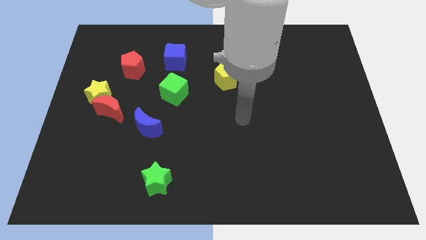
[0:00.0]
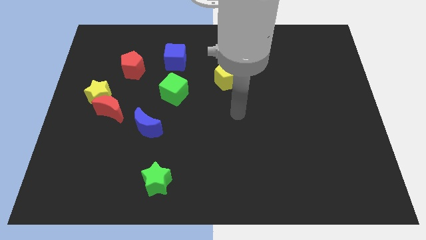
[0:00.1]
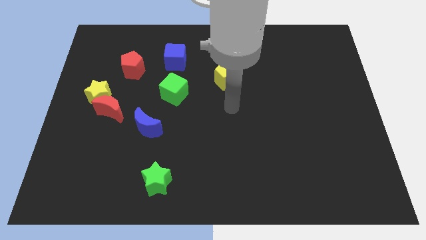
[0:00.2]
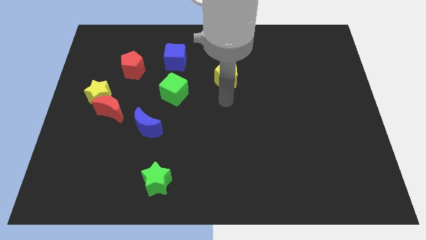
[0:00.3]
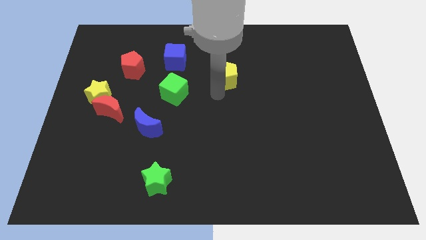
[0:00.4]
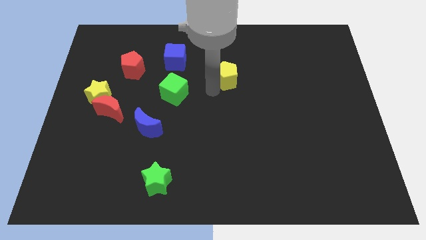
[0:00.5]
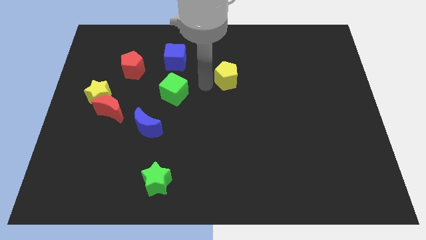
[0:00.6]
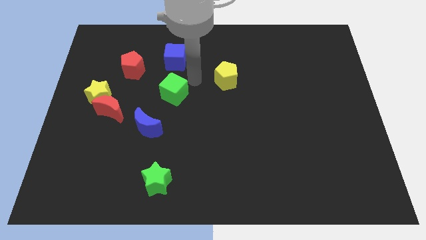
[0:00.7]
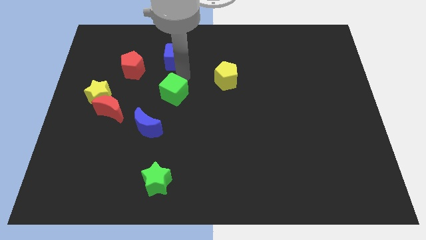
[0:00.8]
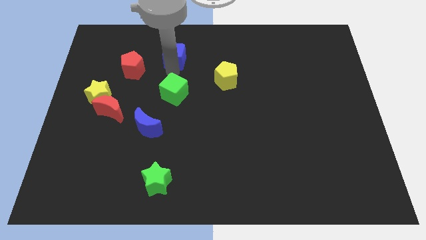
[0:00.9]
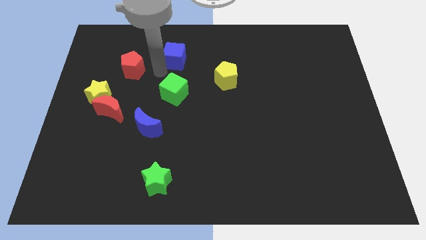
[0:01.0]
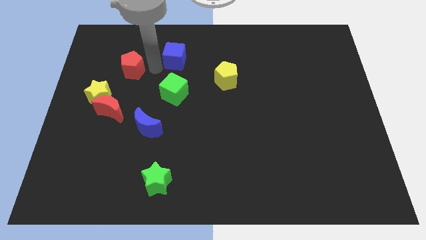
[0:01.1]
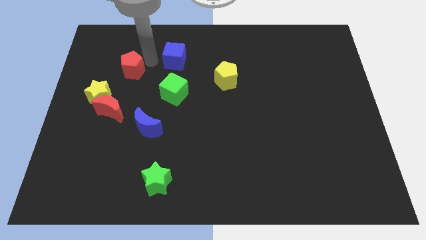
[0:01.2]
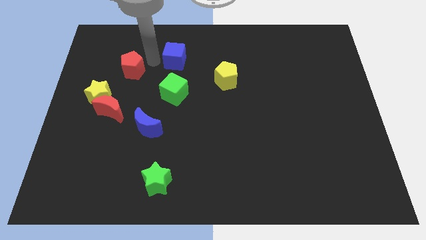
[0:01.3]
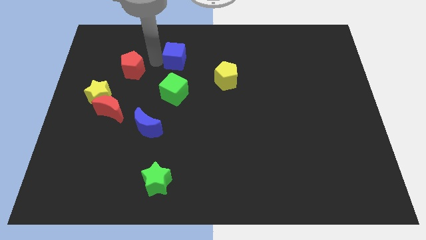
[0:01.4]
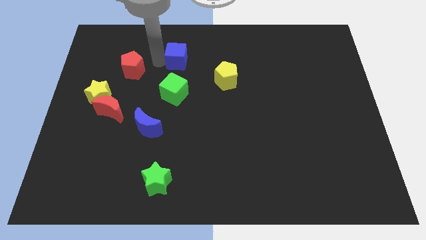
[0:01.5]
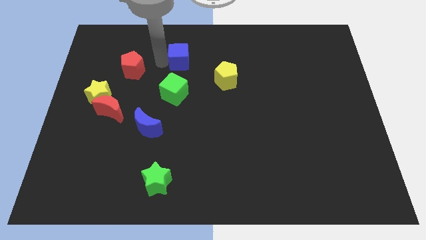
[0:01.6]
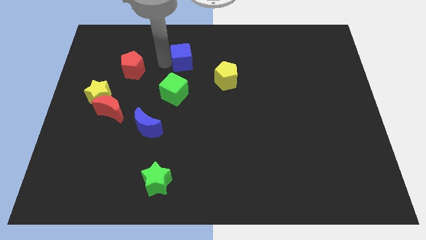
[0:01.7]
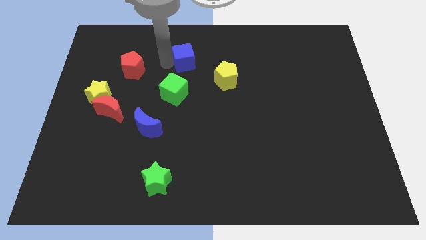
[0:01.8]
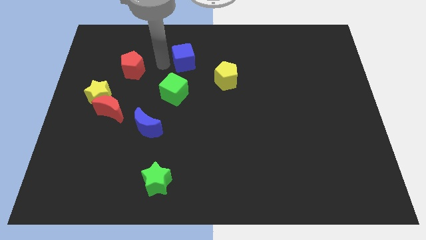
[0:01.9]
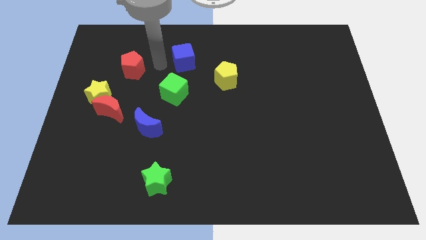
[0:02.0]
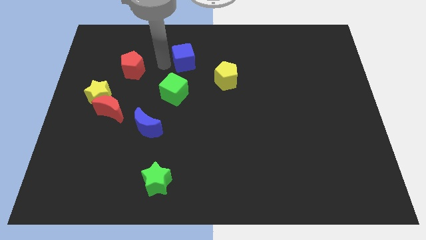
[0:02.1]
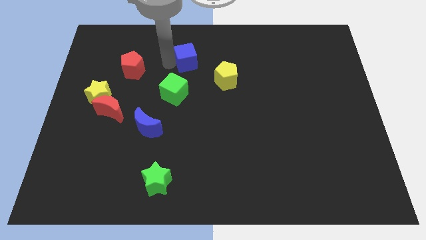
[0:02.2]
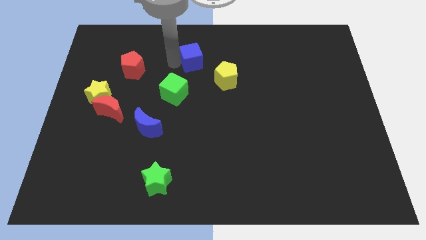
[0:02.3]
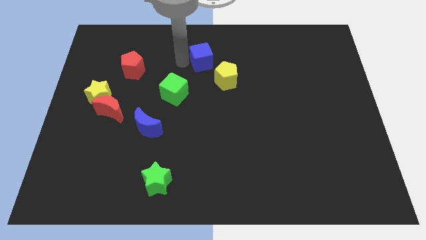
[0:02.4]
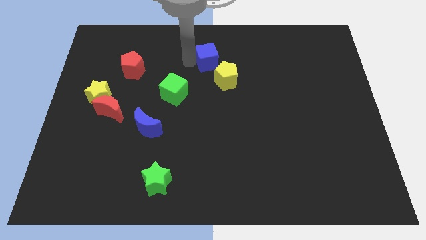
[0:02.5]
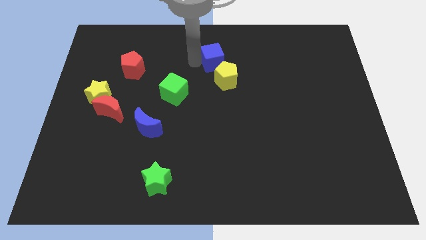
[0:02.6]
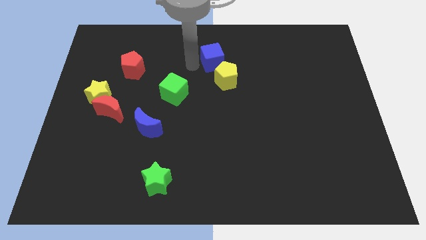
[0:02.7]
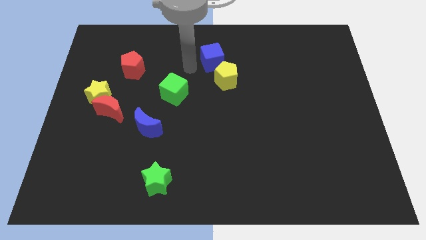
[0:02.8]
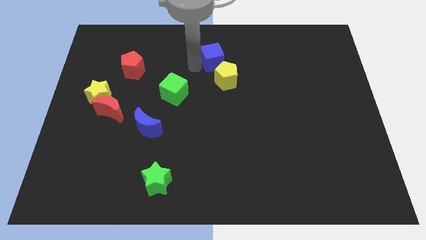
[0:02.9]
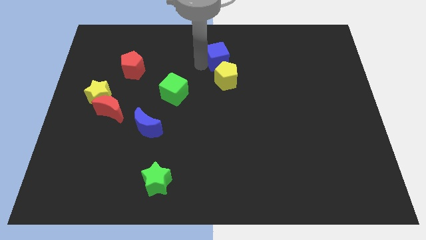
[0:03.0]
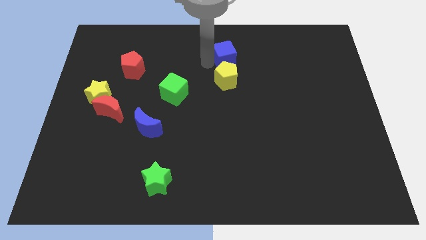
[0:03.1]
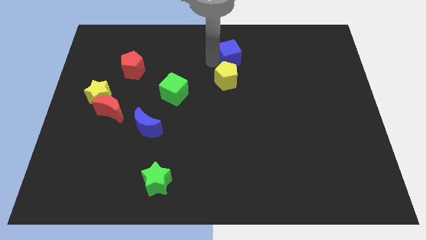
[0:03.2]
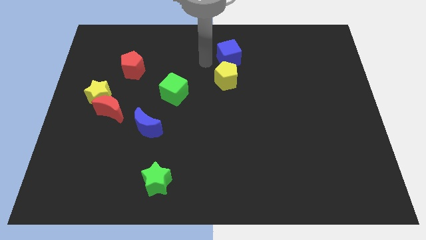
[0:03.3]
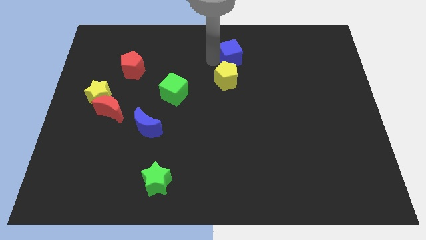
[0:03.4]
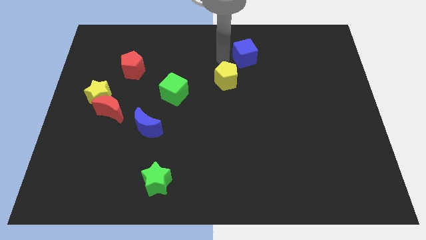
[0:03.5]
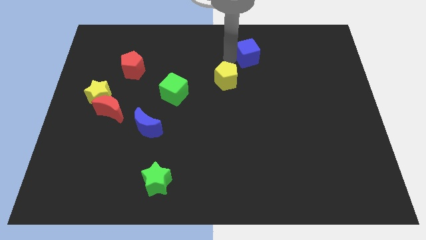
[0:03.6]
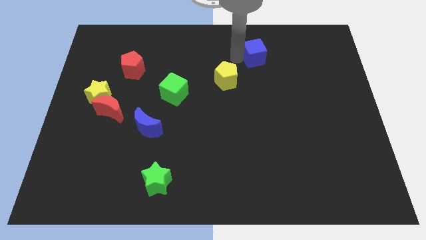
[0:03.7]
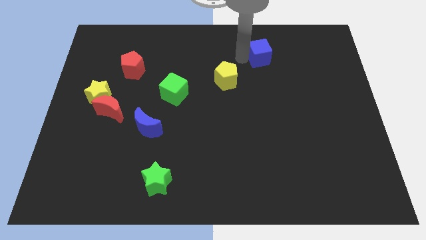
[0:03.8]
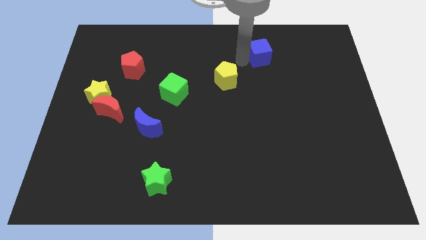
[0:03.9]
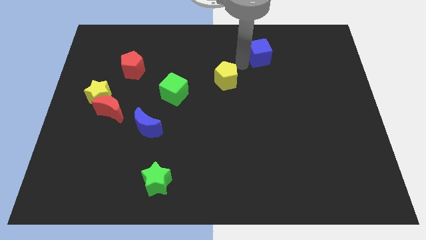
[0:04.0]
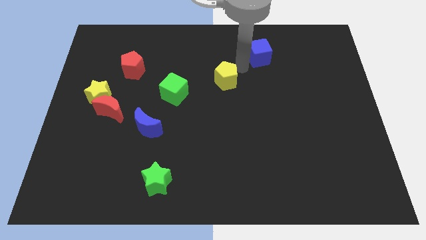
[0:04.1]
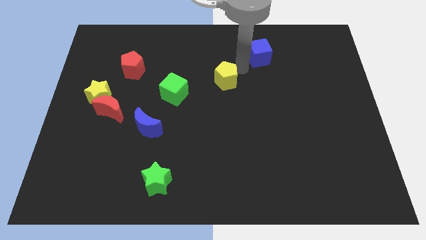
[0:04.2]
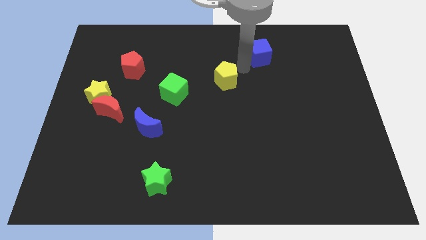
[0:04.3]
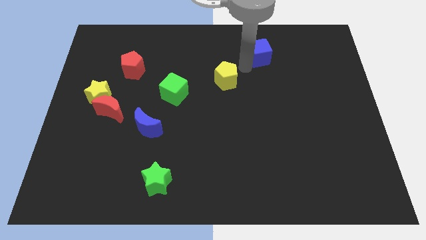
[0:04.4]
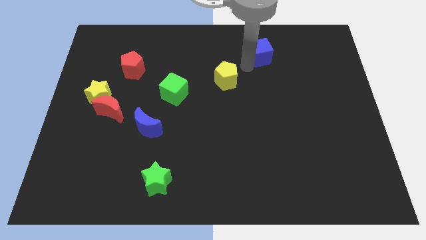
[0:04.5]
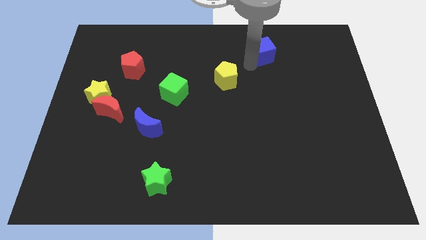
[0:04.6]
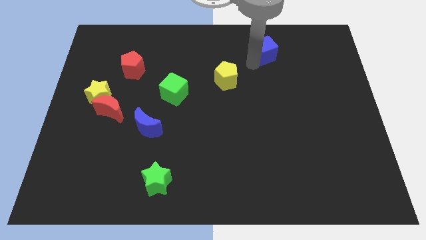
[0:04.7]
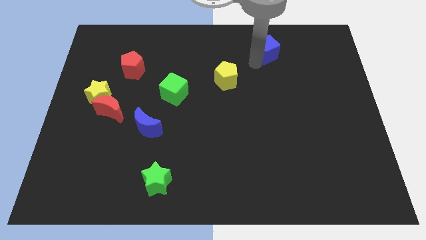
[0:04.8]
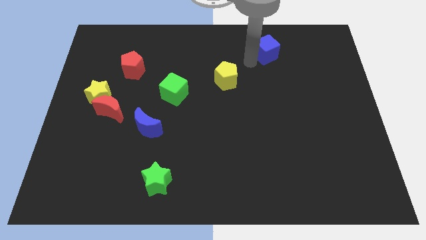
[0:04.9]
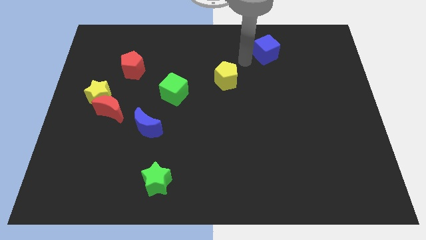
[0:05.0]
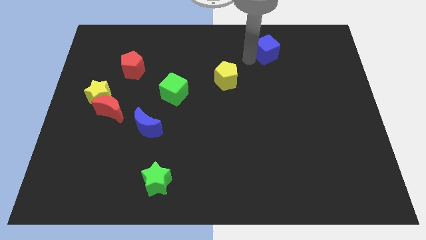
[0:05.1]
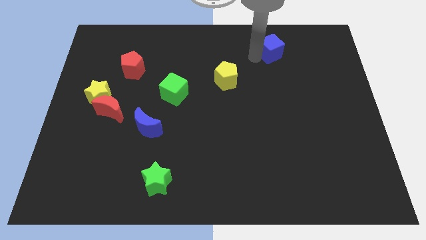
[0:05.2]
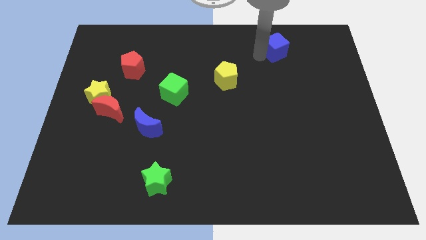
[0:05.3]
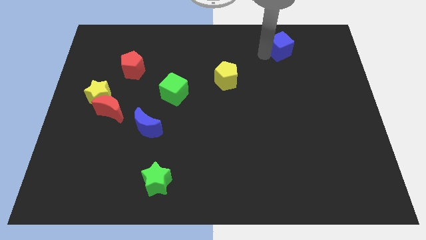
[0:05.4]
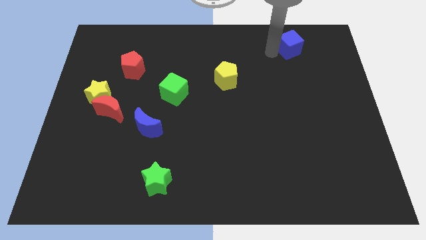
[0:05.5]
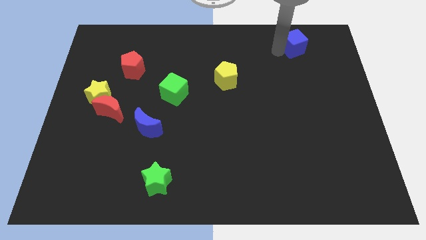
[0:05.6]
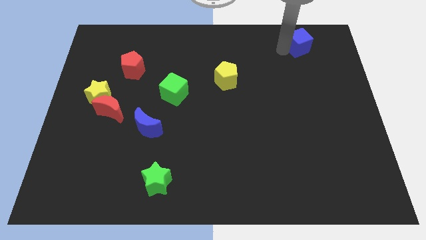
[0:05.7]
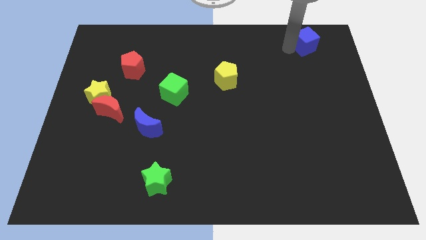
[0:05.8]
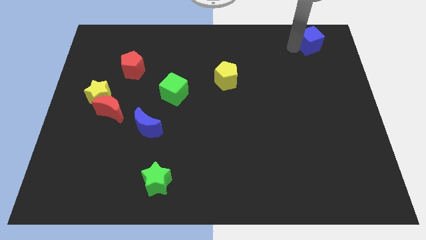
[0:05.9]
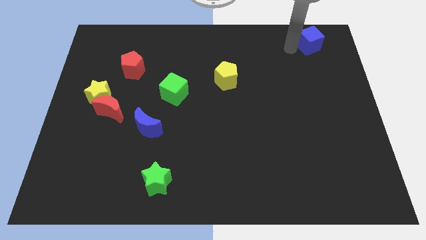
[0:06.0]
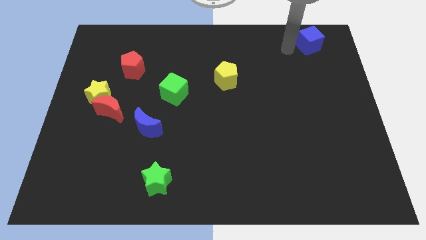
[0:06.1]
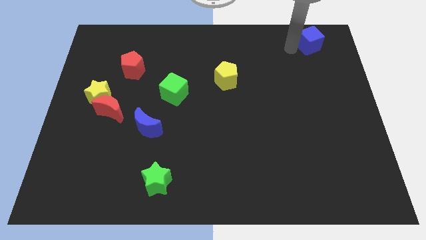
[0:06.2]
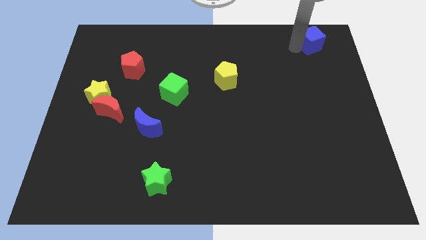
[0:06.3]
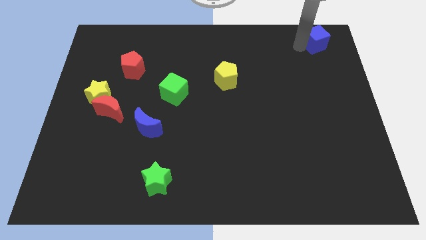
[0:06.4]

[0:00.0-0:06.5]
slide the blue cube to the top right

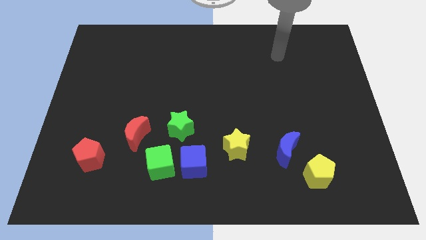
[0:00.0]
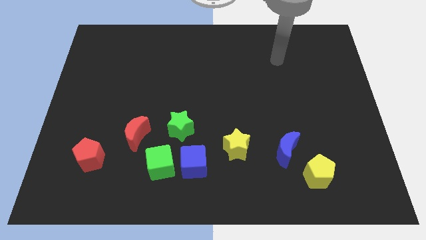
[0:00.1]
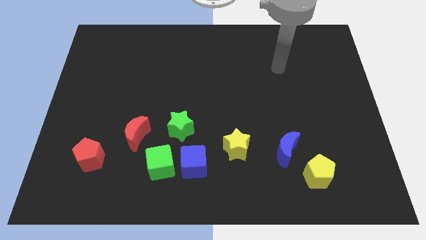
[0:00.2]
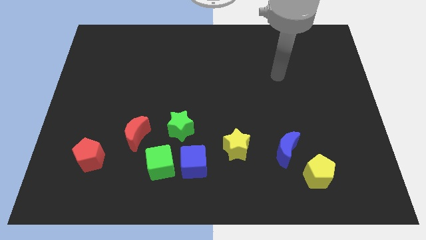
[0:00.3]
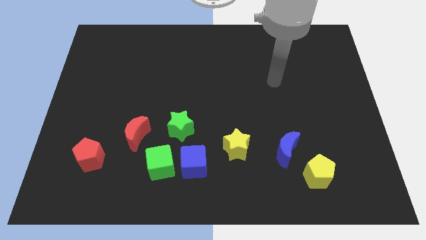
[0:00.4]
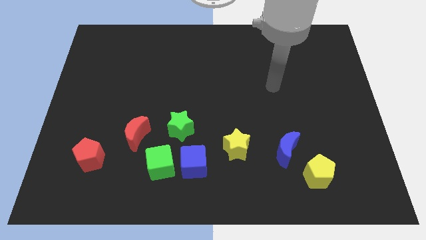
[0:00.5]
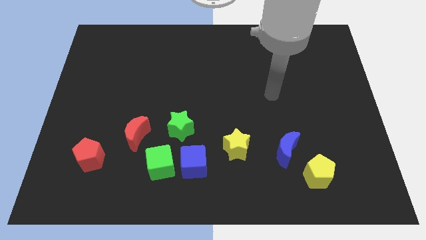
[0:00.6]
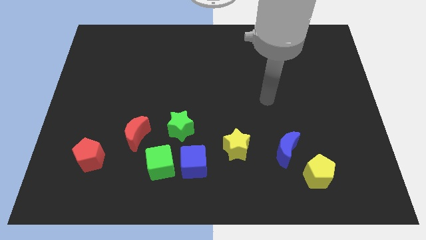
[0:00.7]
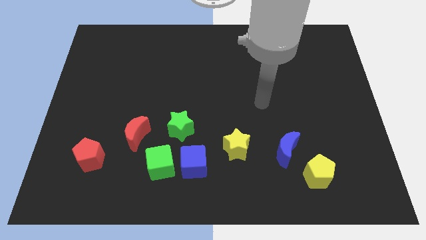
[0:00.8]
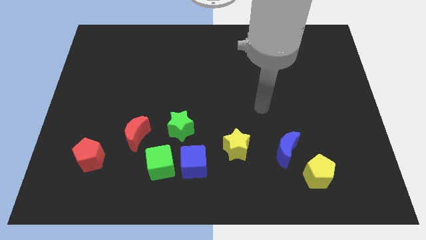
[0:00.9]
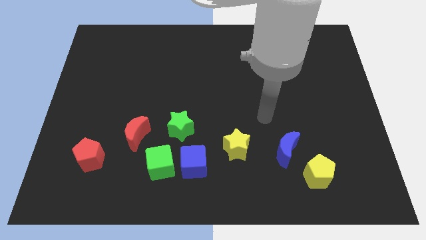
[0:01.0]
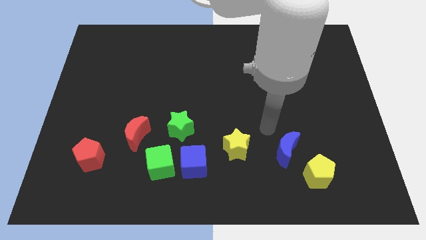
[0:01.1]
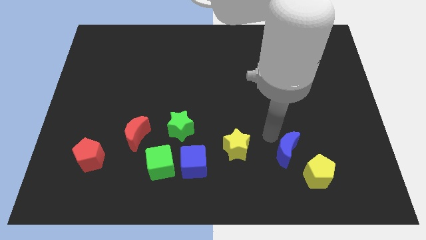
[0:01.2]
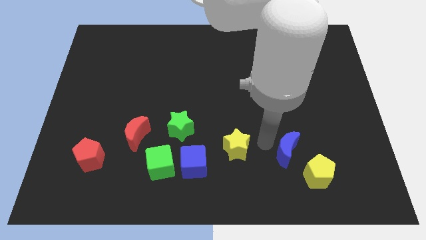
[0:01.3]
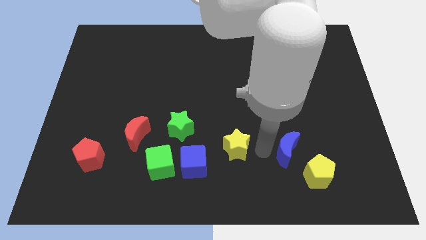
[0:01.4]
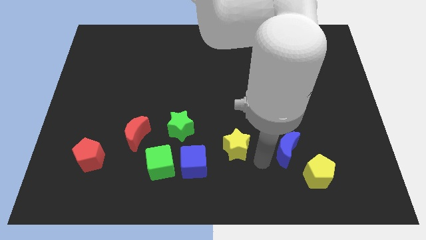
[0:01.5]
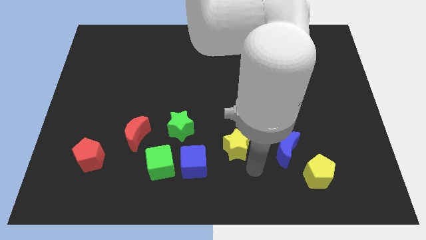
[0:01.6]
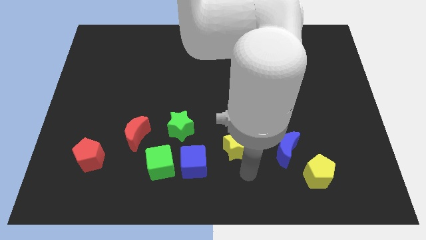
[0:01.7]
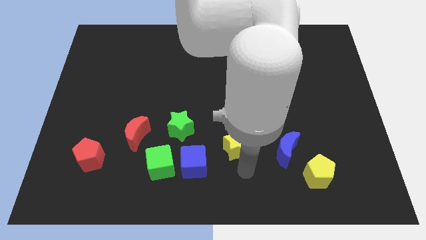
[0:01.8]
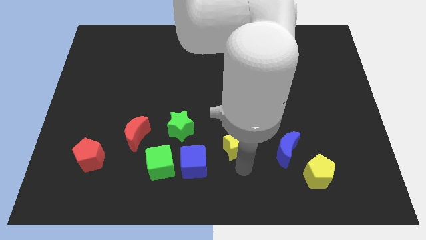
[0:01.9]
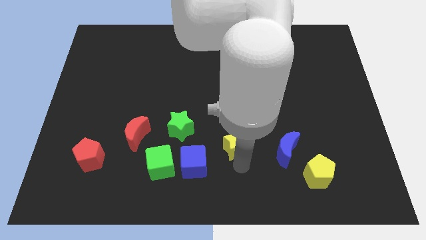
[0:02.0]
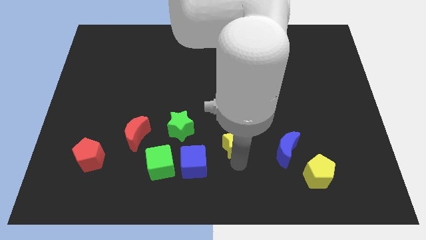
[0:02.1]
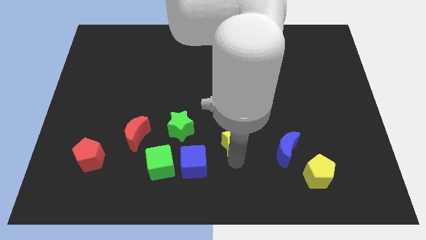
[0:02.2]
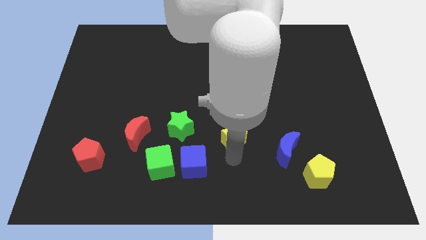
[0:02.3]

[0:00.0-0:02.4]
push the yellow star to the middle
